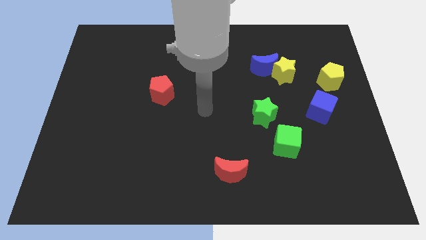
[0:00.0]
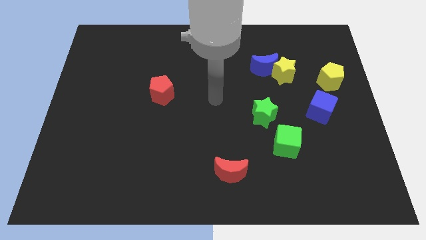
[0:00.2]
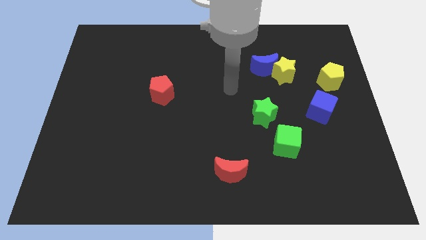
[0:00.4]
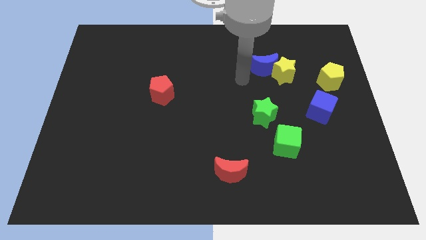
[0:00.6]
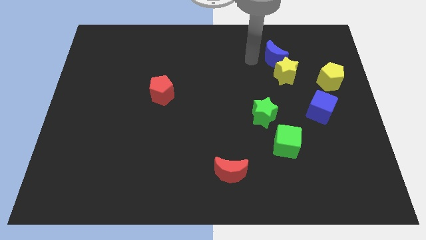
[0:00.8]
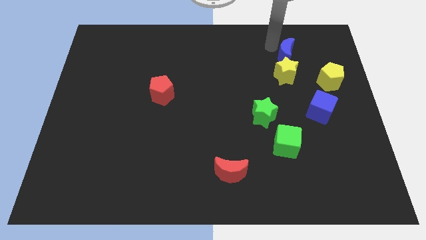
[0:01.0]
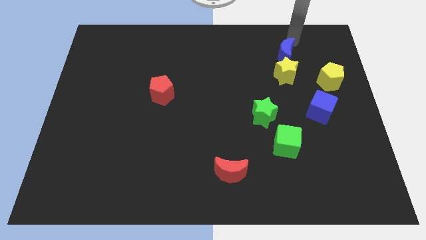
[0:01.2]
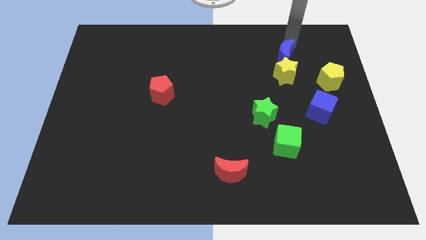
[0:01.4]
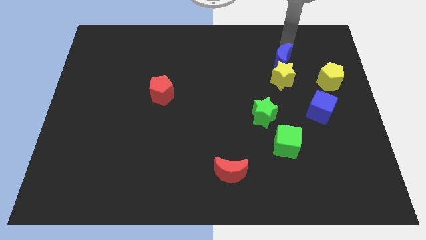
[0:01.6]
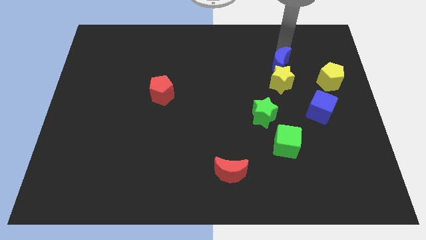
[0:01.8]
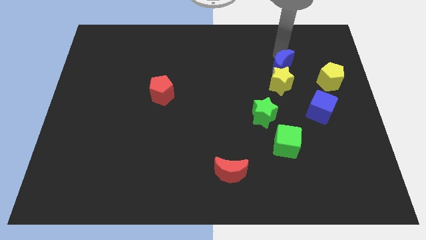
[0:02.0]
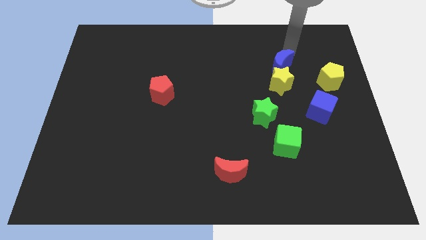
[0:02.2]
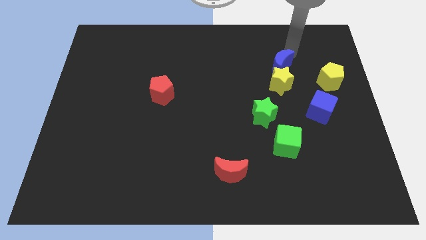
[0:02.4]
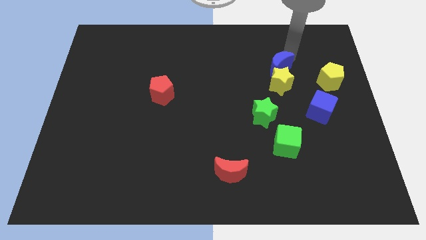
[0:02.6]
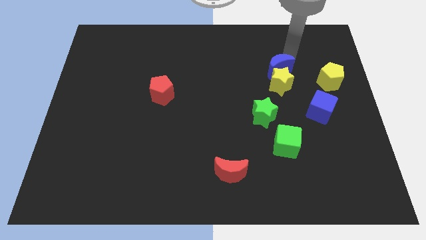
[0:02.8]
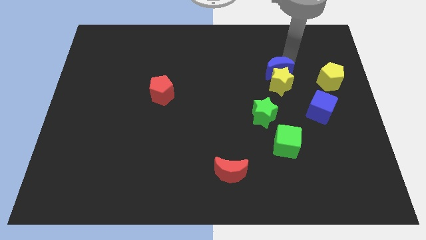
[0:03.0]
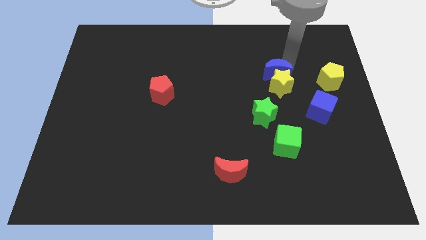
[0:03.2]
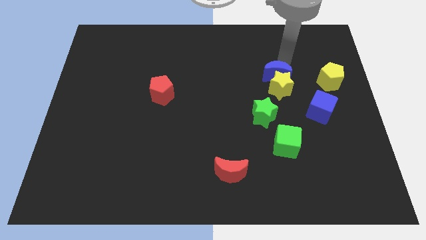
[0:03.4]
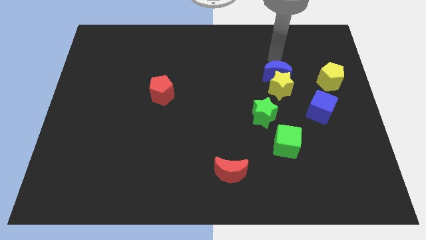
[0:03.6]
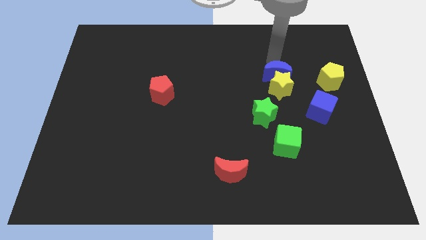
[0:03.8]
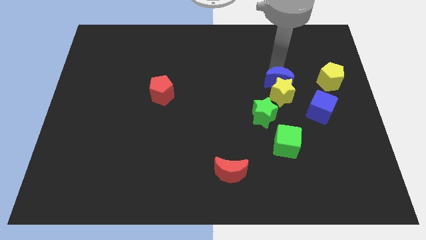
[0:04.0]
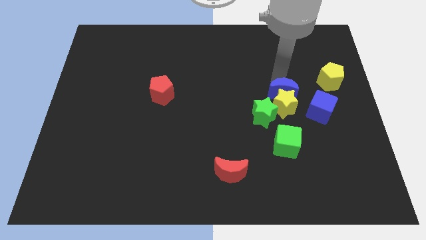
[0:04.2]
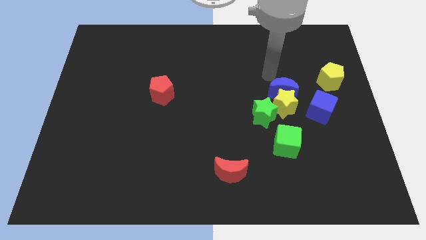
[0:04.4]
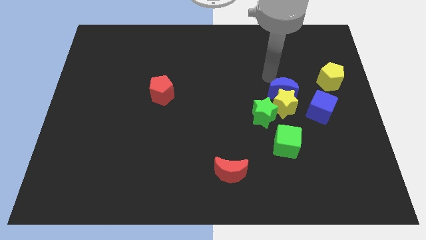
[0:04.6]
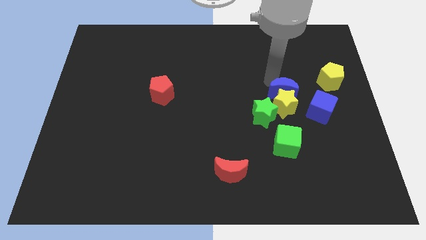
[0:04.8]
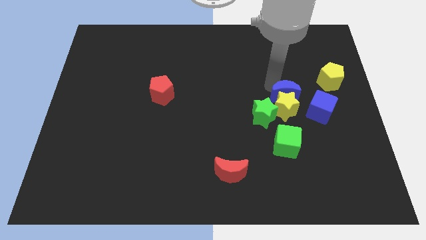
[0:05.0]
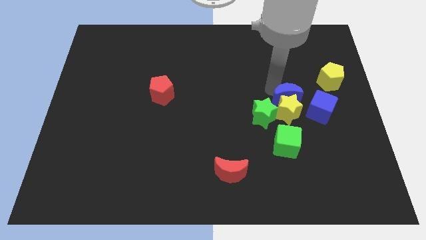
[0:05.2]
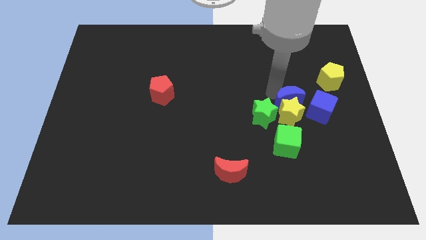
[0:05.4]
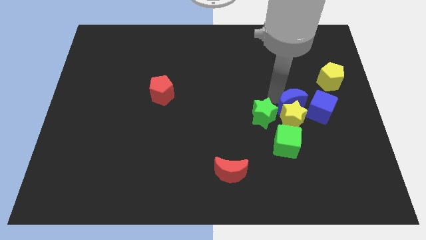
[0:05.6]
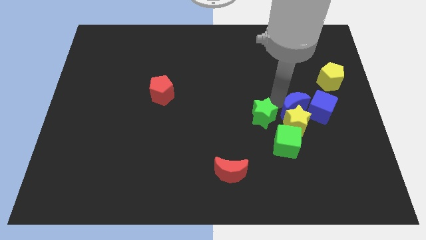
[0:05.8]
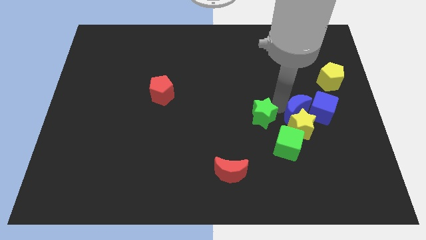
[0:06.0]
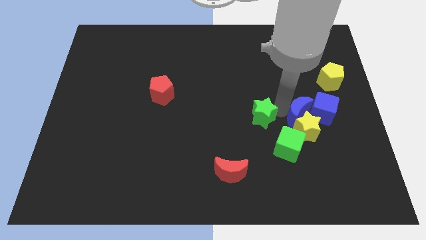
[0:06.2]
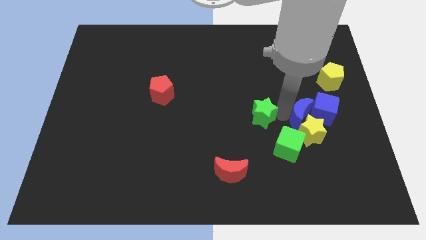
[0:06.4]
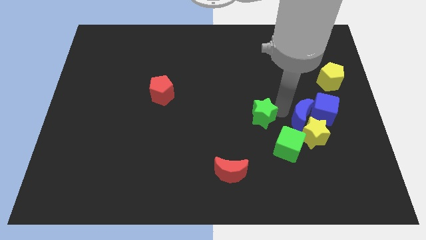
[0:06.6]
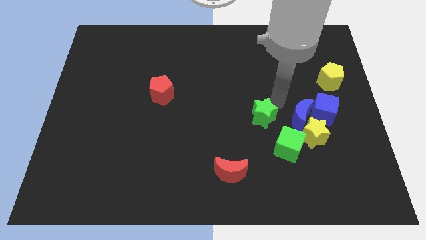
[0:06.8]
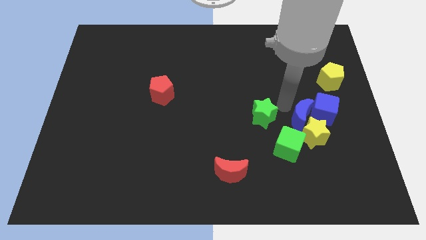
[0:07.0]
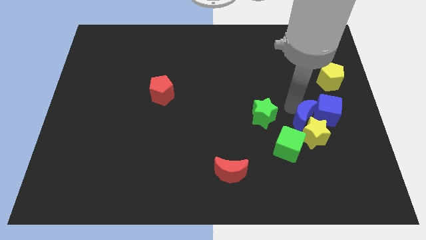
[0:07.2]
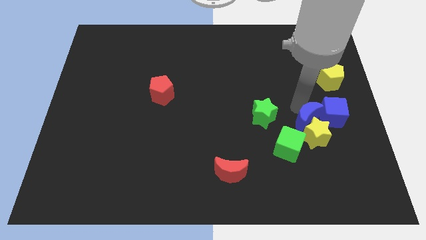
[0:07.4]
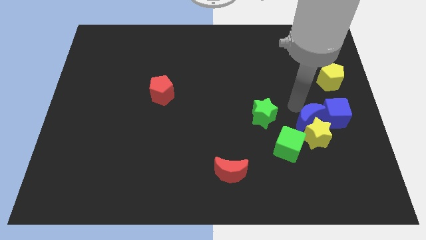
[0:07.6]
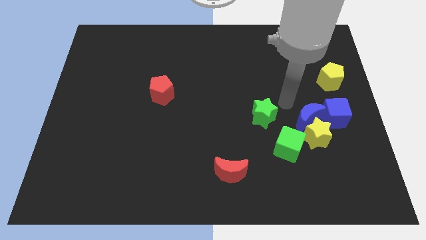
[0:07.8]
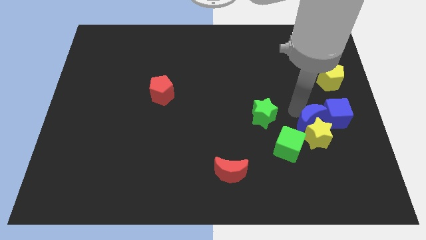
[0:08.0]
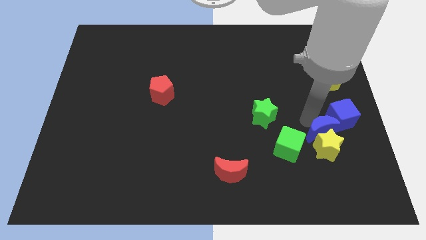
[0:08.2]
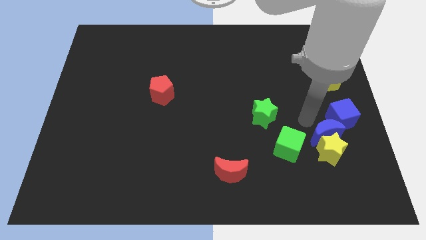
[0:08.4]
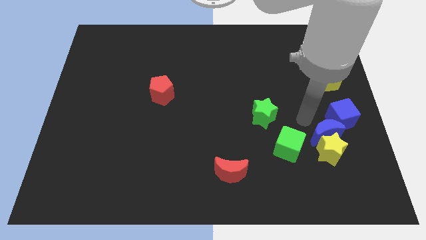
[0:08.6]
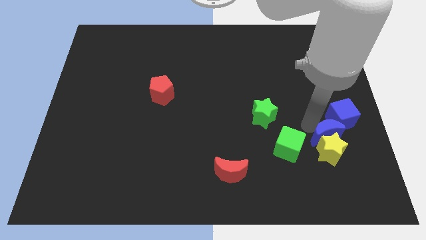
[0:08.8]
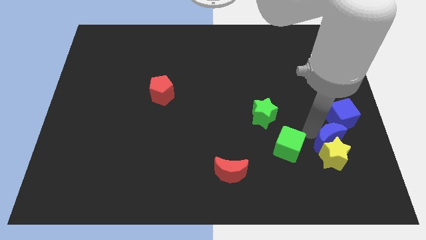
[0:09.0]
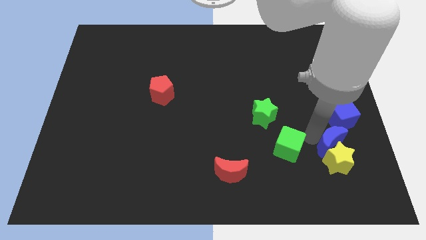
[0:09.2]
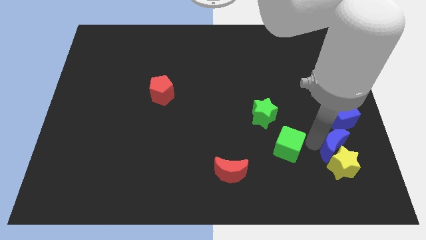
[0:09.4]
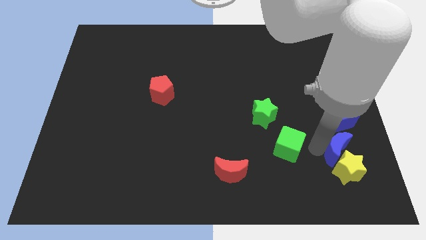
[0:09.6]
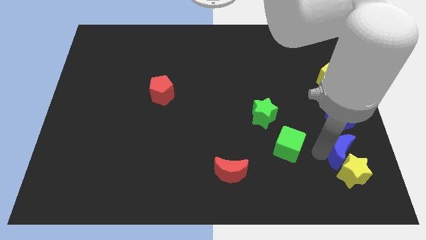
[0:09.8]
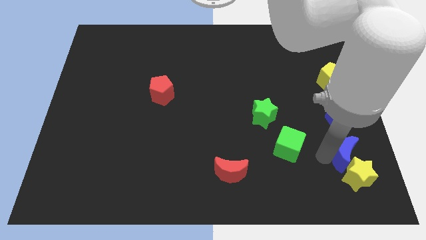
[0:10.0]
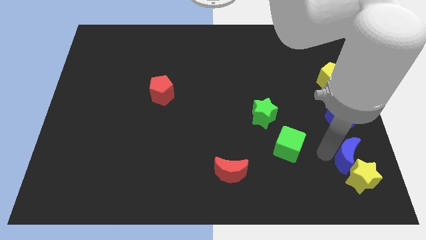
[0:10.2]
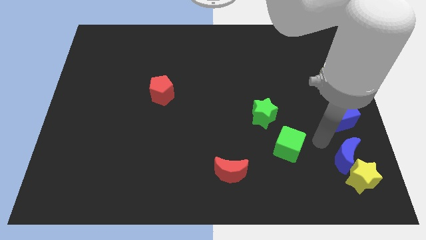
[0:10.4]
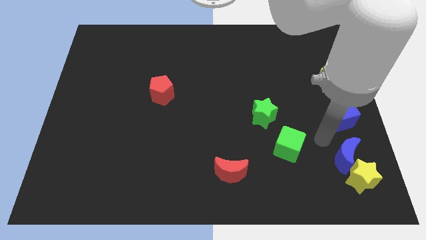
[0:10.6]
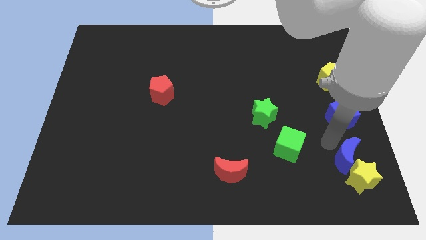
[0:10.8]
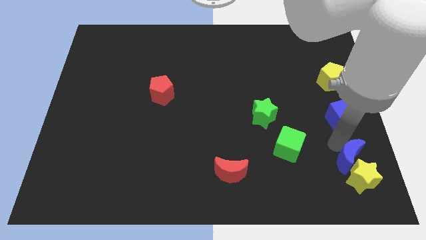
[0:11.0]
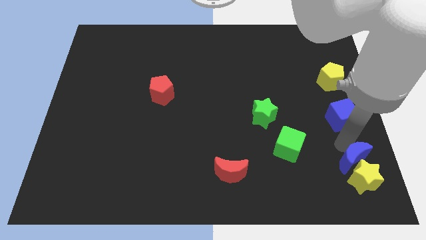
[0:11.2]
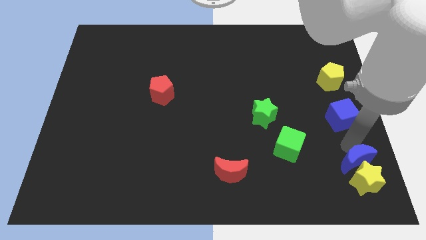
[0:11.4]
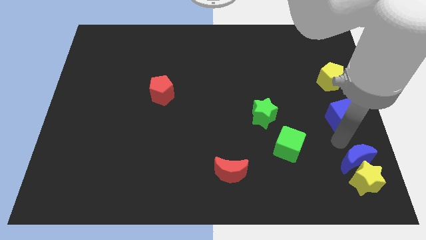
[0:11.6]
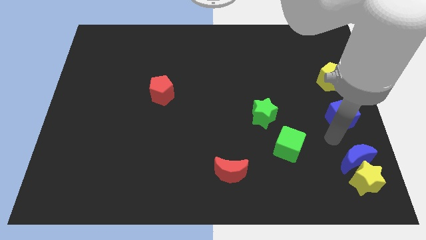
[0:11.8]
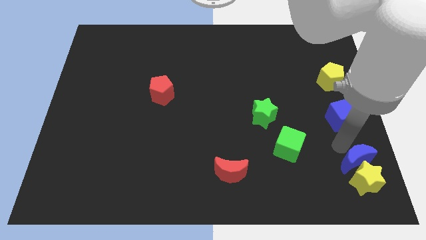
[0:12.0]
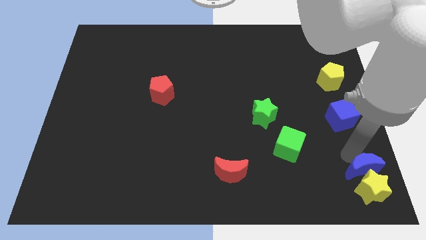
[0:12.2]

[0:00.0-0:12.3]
put the blue moon to the bottom right corner
